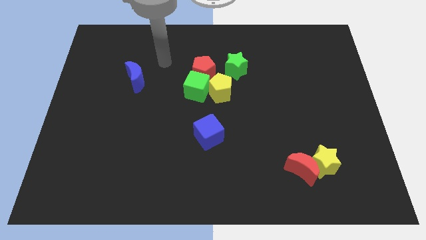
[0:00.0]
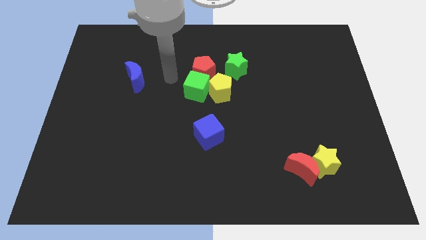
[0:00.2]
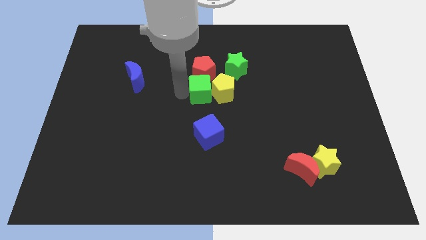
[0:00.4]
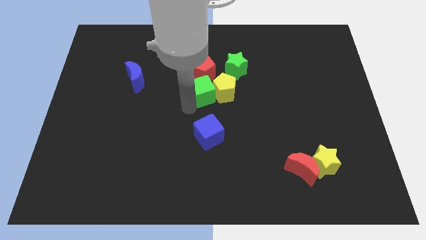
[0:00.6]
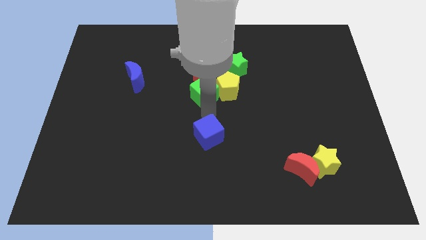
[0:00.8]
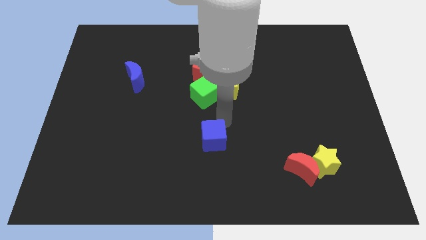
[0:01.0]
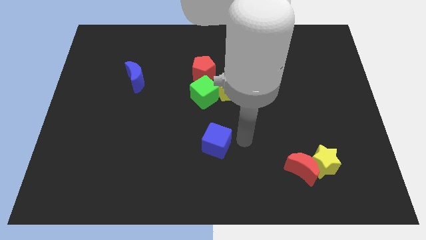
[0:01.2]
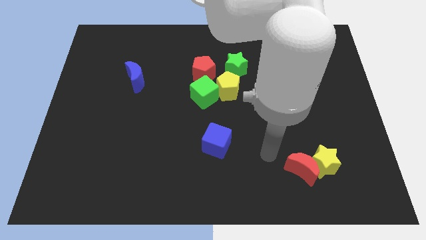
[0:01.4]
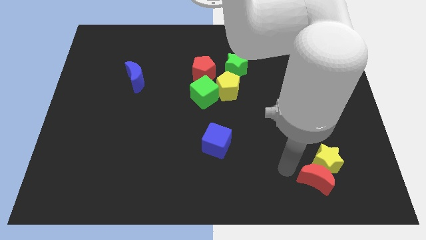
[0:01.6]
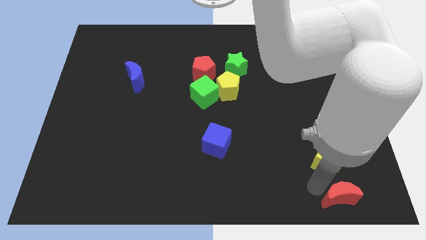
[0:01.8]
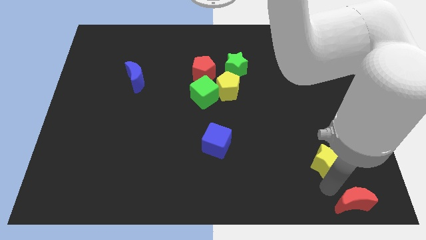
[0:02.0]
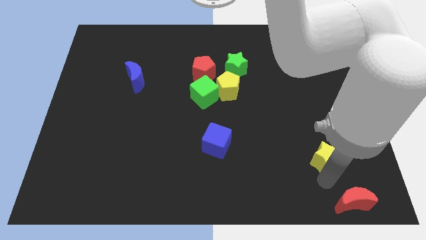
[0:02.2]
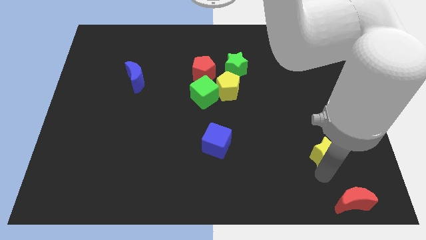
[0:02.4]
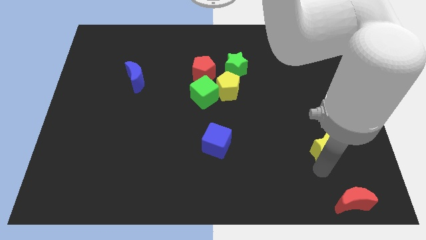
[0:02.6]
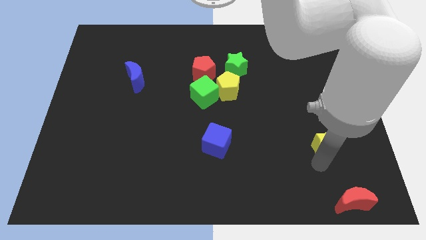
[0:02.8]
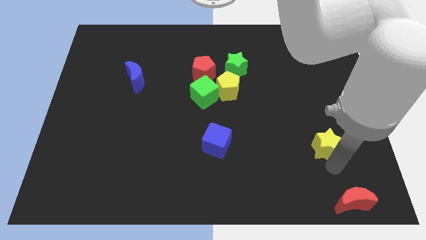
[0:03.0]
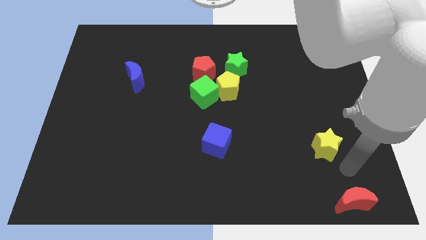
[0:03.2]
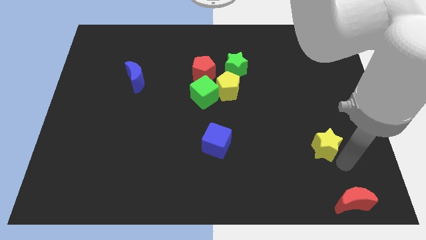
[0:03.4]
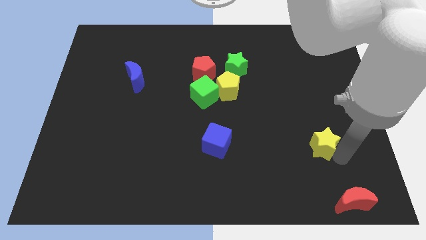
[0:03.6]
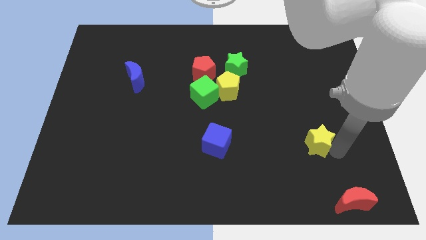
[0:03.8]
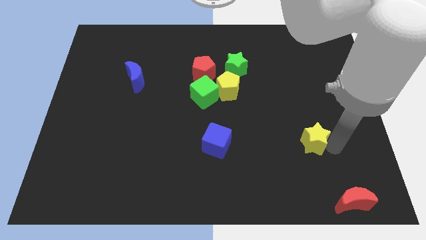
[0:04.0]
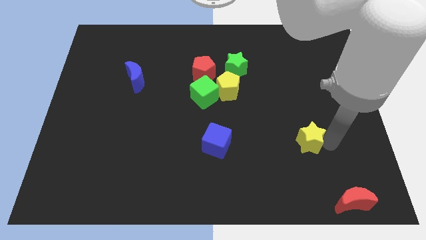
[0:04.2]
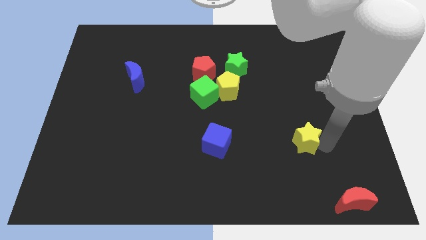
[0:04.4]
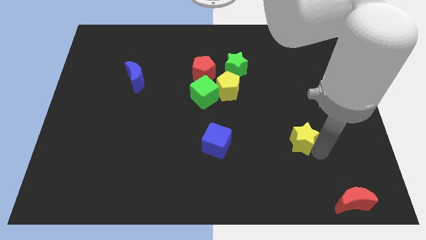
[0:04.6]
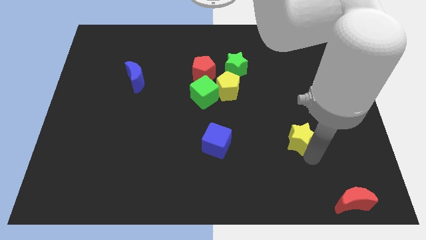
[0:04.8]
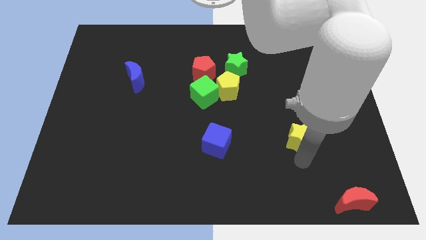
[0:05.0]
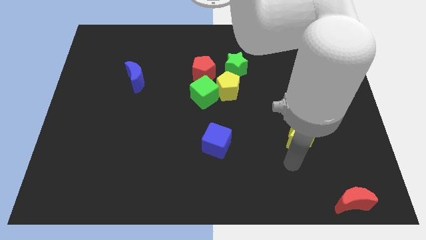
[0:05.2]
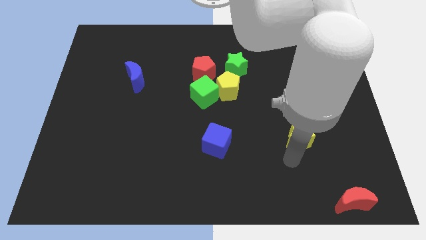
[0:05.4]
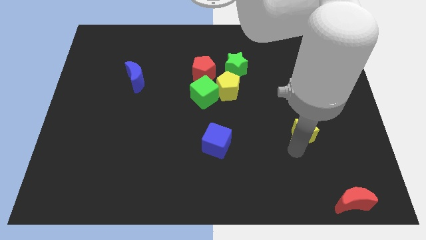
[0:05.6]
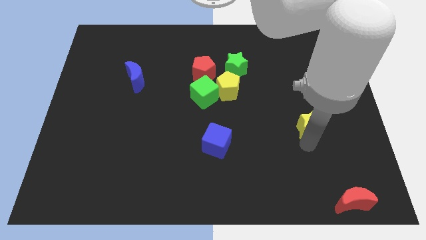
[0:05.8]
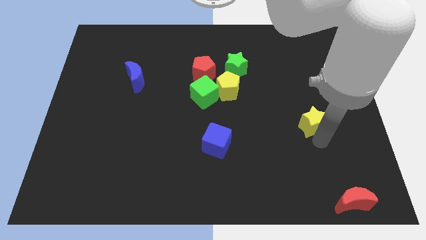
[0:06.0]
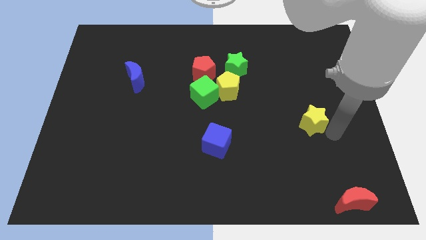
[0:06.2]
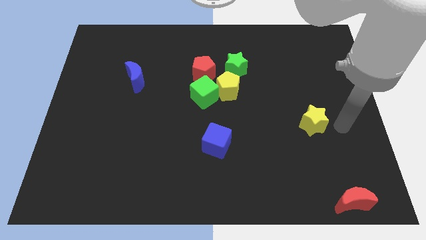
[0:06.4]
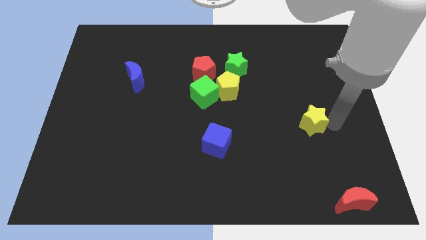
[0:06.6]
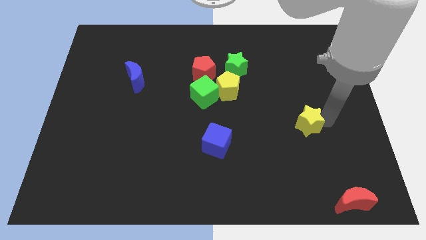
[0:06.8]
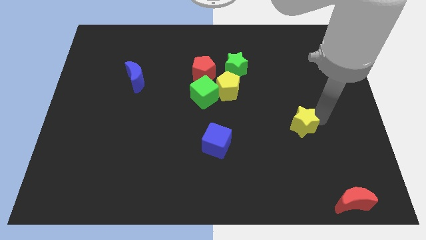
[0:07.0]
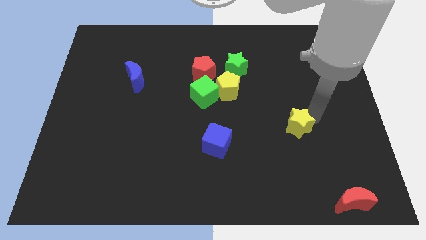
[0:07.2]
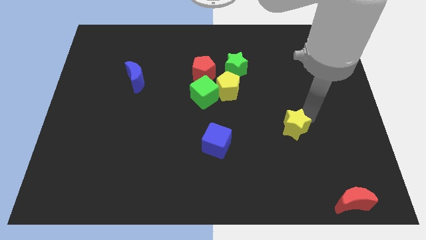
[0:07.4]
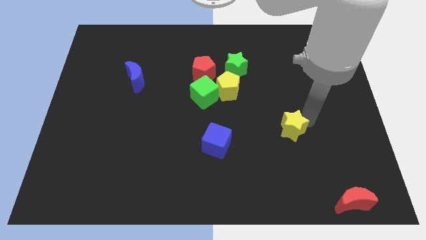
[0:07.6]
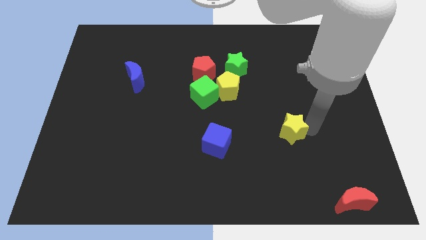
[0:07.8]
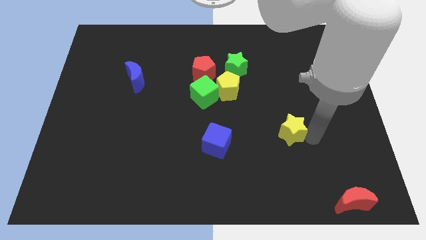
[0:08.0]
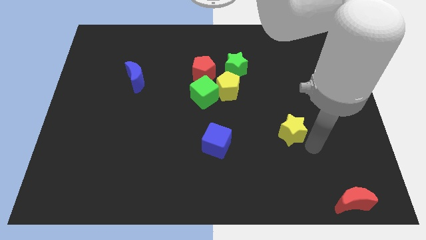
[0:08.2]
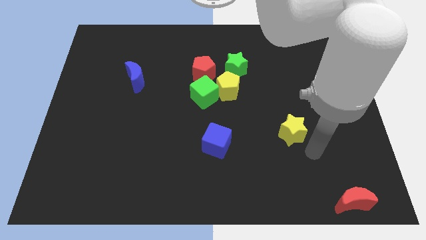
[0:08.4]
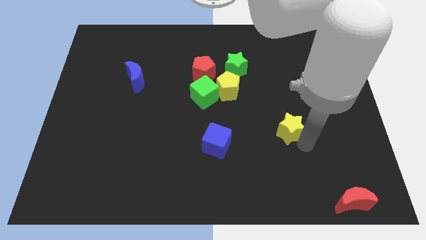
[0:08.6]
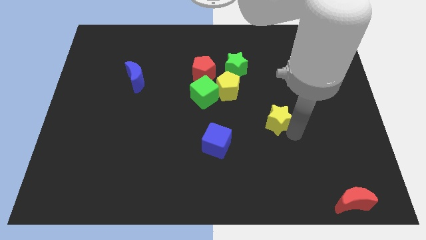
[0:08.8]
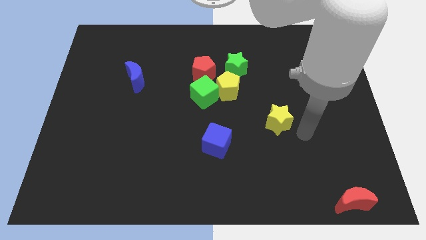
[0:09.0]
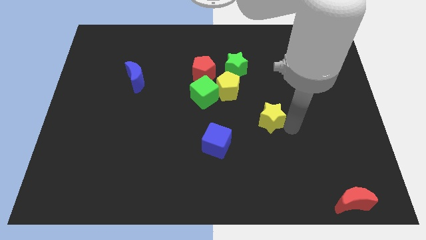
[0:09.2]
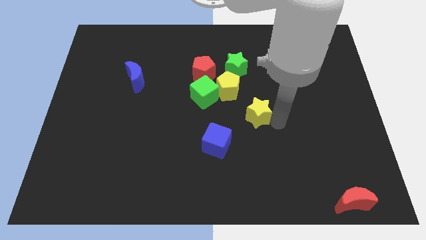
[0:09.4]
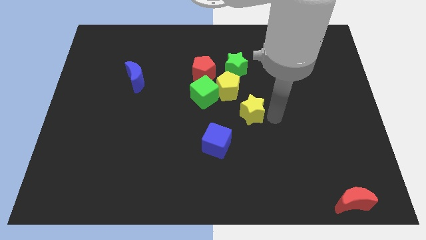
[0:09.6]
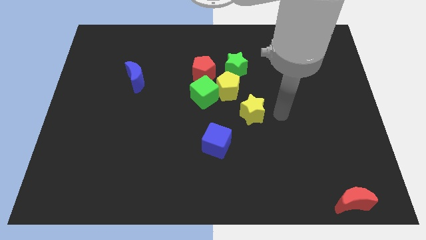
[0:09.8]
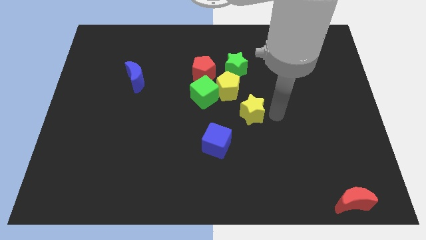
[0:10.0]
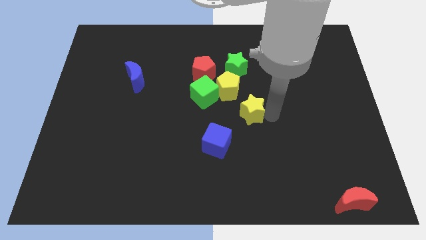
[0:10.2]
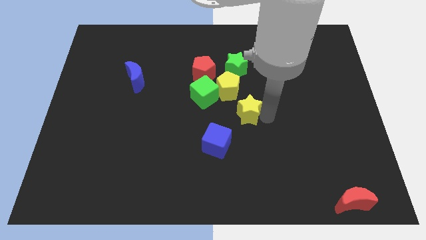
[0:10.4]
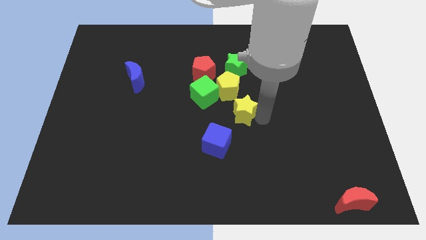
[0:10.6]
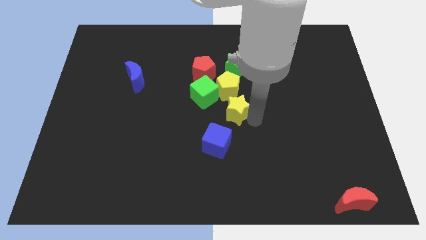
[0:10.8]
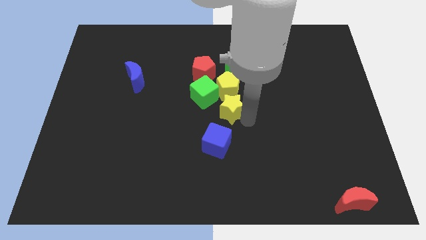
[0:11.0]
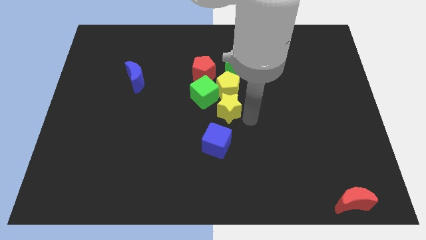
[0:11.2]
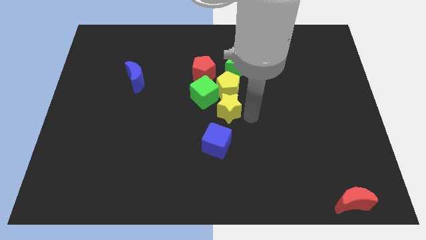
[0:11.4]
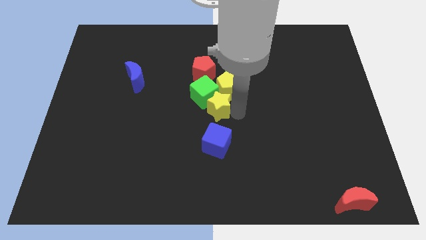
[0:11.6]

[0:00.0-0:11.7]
put the yellow star to the green cube

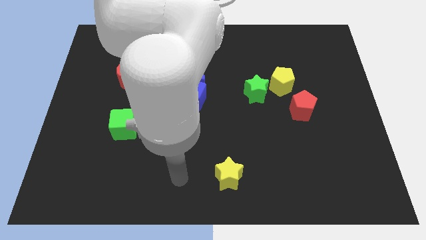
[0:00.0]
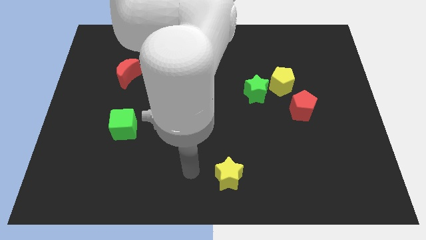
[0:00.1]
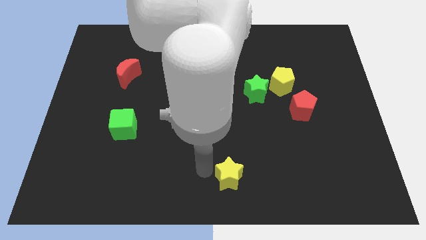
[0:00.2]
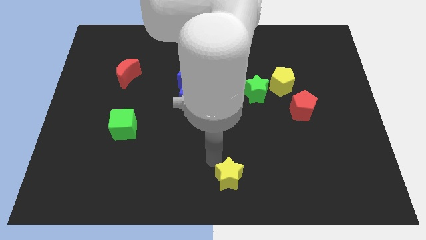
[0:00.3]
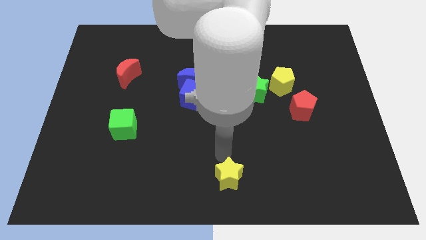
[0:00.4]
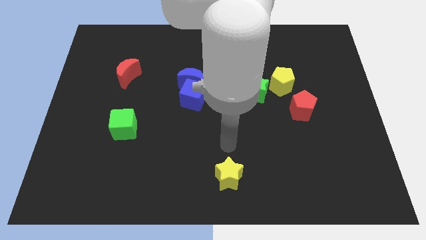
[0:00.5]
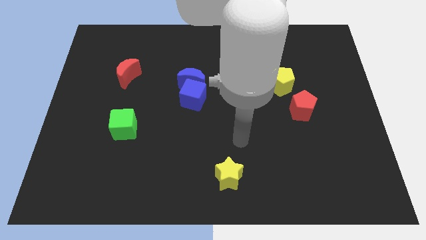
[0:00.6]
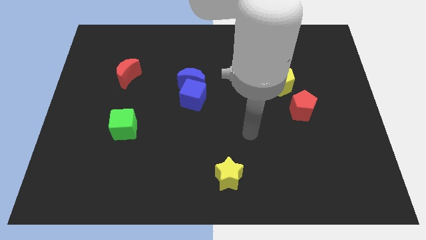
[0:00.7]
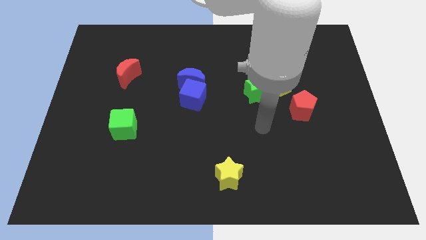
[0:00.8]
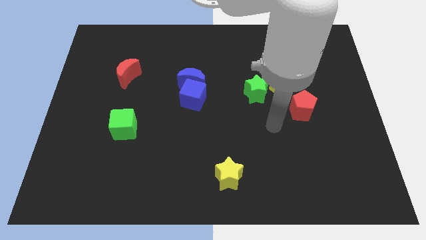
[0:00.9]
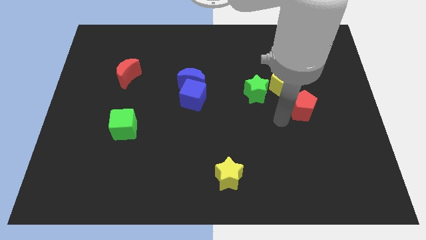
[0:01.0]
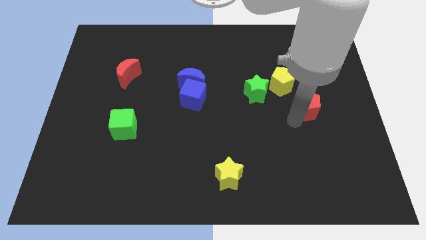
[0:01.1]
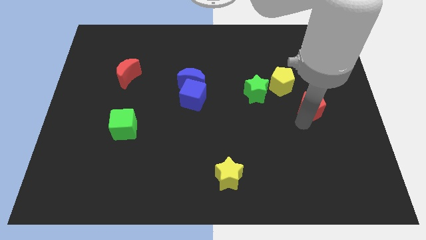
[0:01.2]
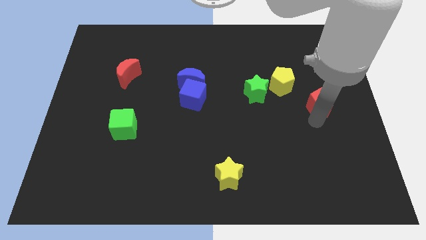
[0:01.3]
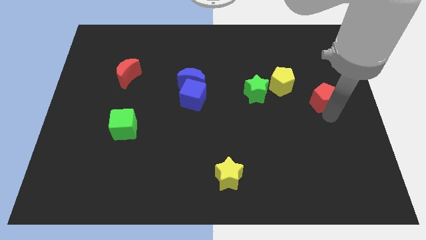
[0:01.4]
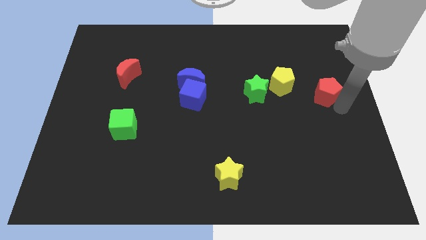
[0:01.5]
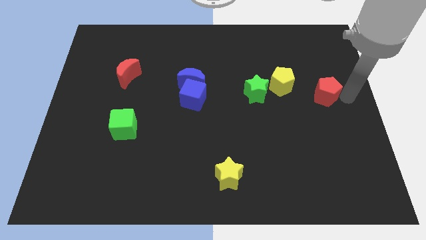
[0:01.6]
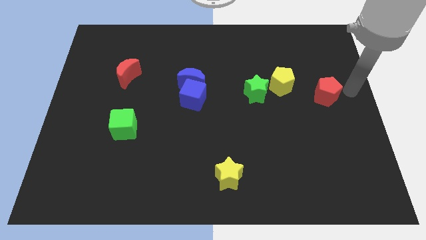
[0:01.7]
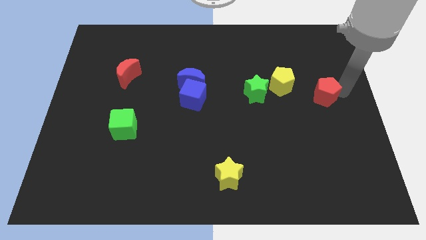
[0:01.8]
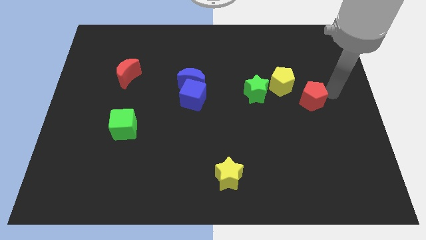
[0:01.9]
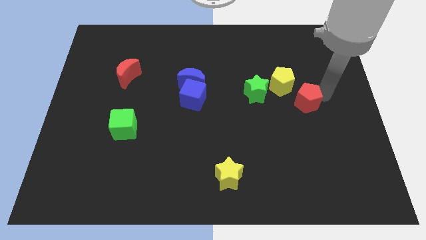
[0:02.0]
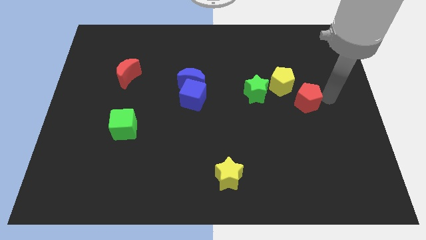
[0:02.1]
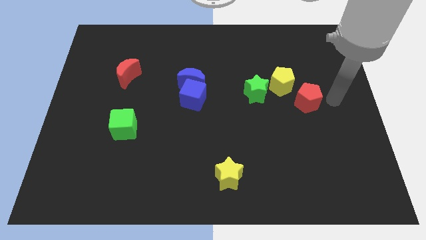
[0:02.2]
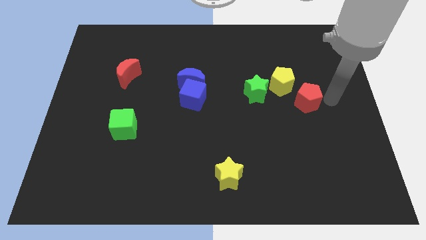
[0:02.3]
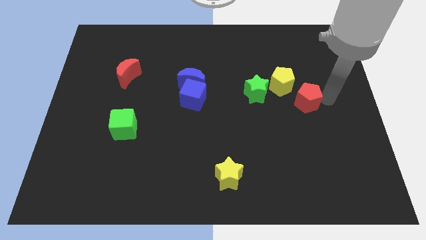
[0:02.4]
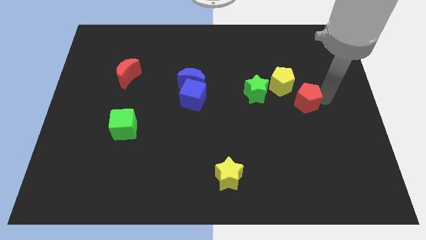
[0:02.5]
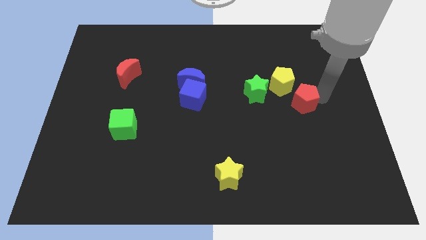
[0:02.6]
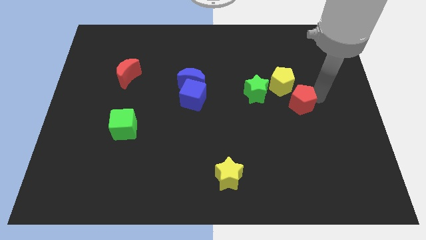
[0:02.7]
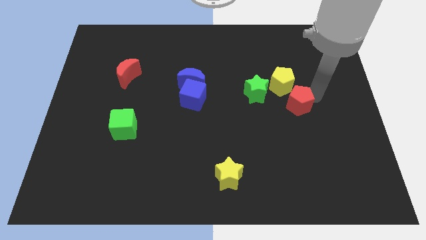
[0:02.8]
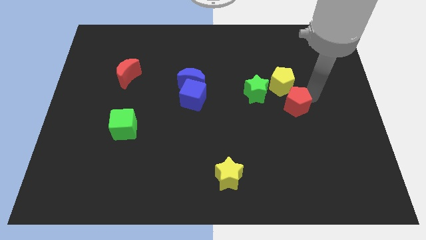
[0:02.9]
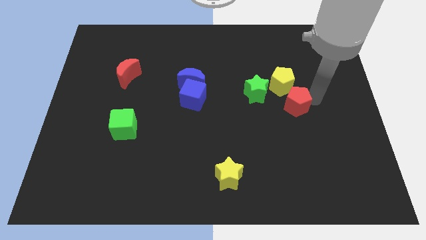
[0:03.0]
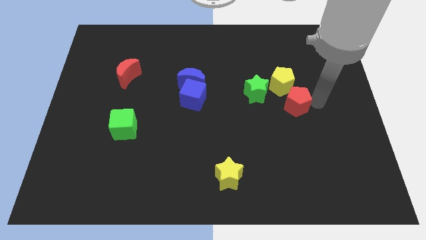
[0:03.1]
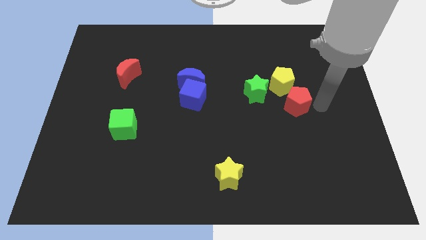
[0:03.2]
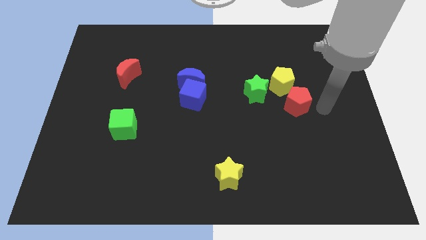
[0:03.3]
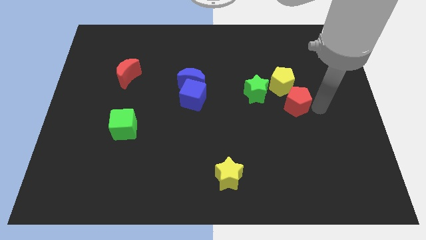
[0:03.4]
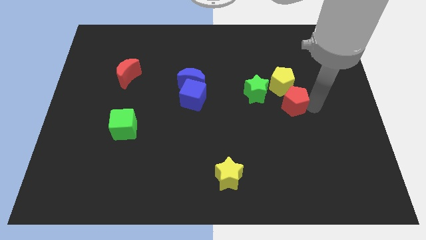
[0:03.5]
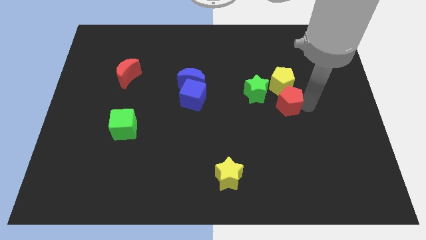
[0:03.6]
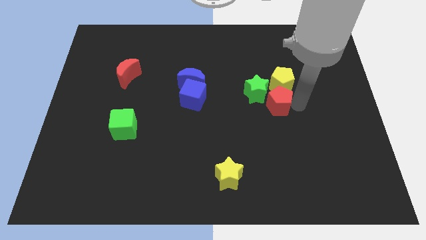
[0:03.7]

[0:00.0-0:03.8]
slide the red pentagon close to the green star
